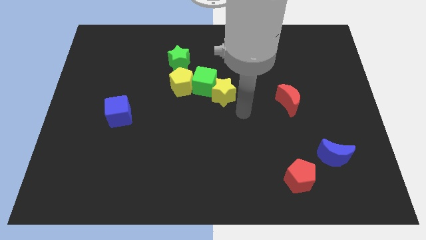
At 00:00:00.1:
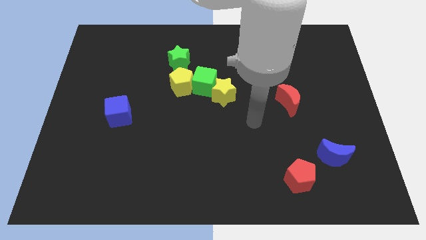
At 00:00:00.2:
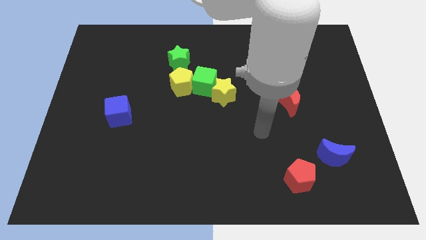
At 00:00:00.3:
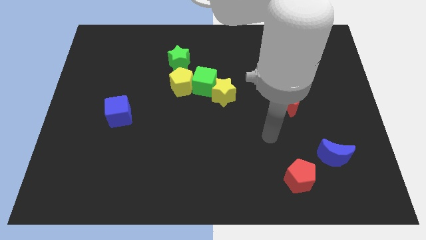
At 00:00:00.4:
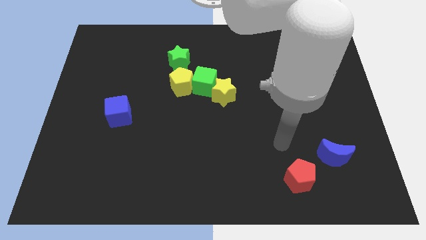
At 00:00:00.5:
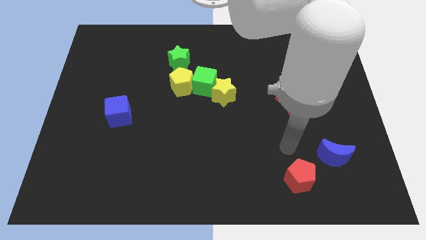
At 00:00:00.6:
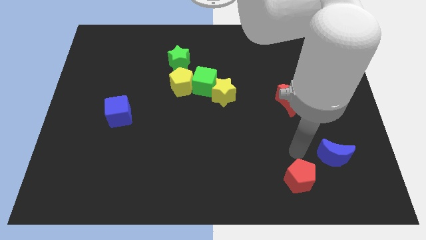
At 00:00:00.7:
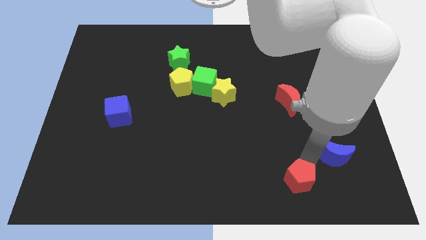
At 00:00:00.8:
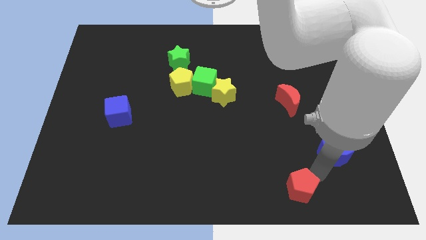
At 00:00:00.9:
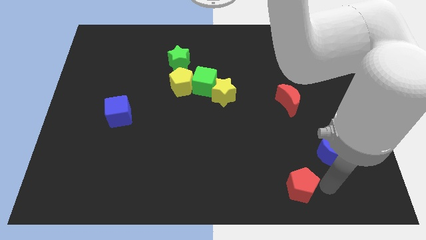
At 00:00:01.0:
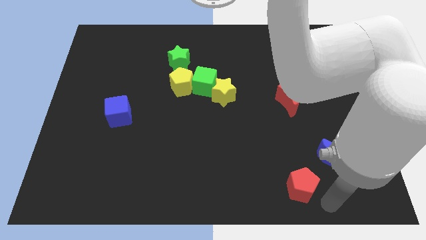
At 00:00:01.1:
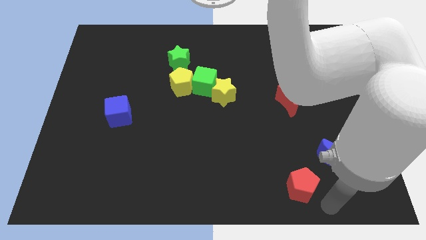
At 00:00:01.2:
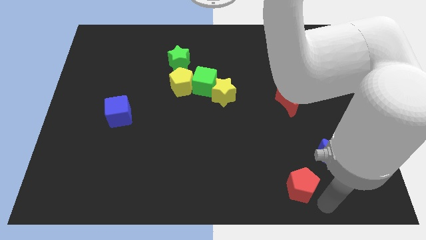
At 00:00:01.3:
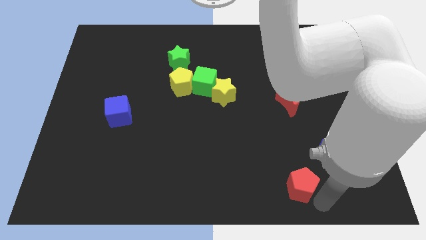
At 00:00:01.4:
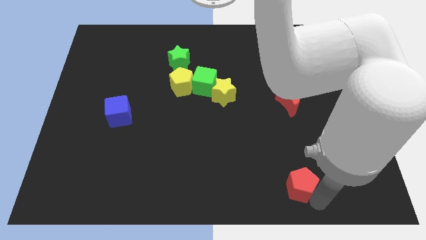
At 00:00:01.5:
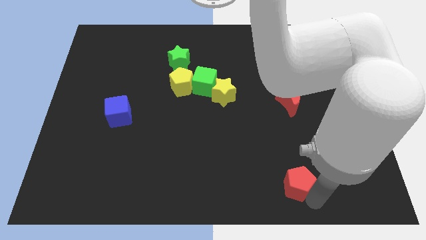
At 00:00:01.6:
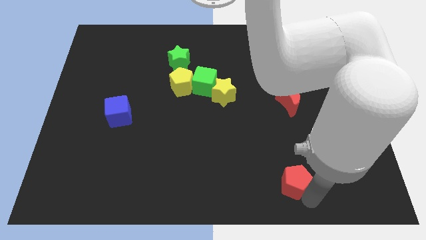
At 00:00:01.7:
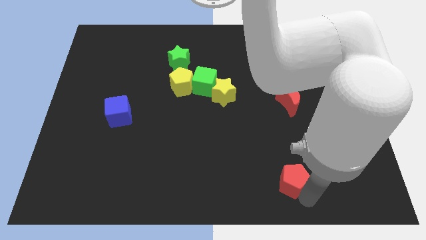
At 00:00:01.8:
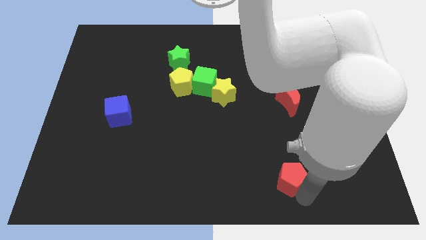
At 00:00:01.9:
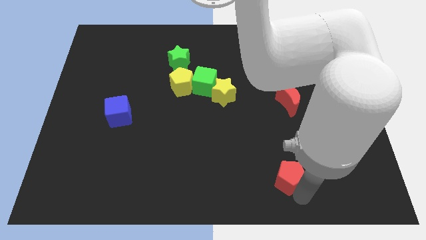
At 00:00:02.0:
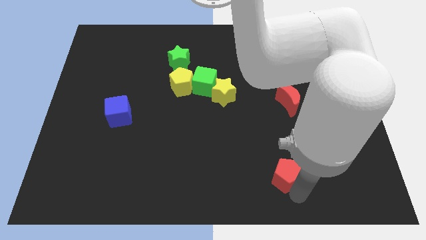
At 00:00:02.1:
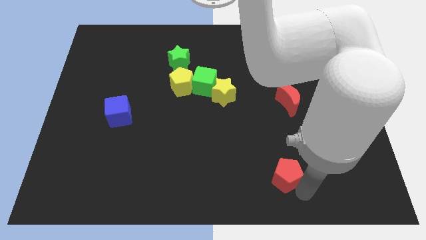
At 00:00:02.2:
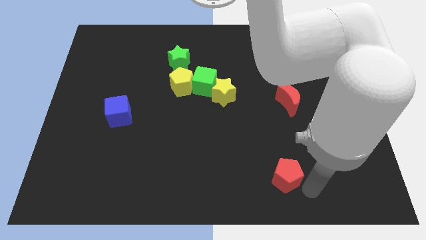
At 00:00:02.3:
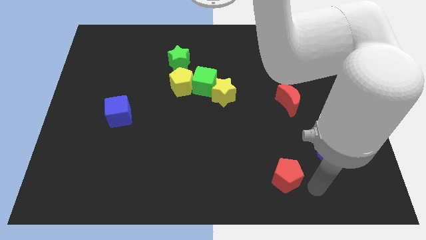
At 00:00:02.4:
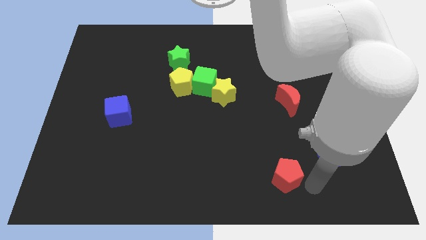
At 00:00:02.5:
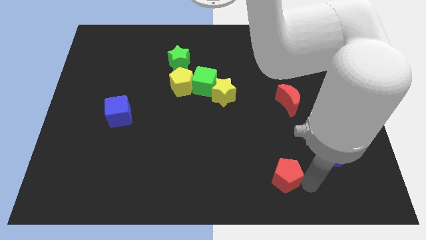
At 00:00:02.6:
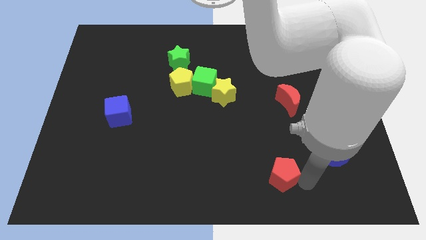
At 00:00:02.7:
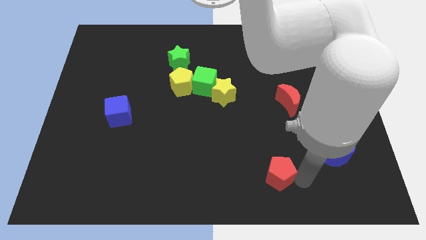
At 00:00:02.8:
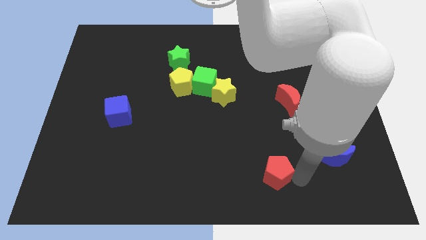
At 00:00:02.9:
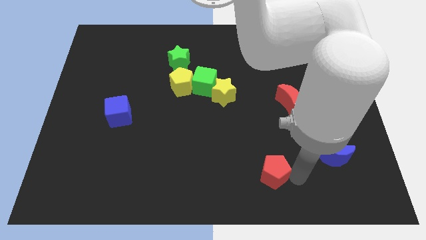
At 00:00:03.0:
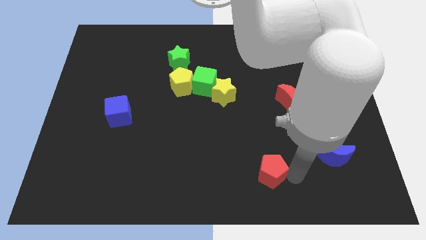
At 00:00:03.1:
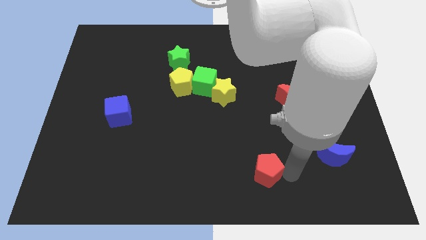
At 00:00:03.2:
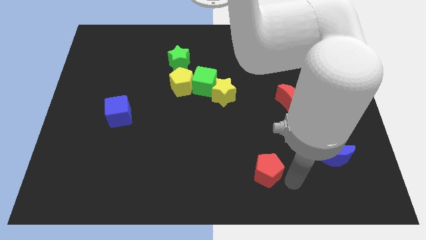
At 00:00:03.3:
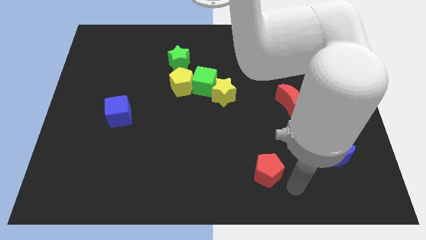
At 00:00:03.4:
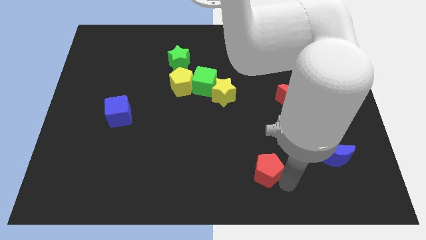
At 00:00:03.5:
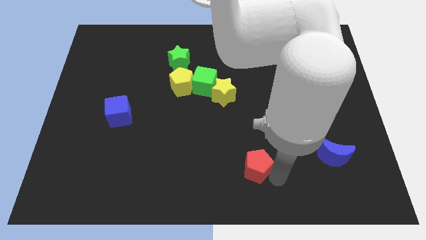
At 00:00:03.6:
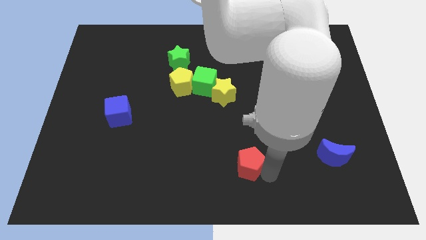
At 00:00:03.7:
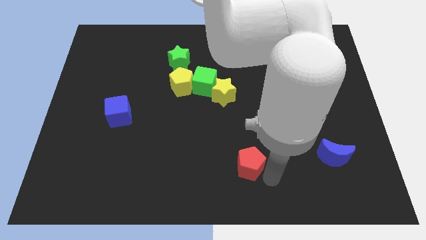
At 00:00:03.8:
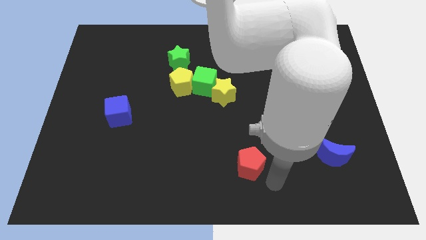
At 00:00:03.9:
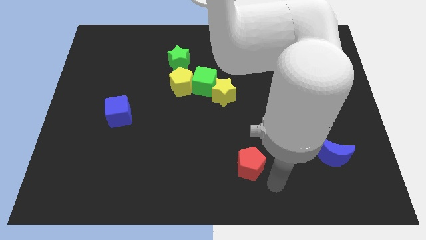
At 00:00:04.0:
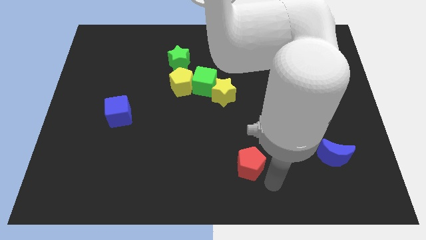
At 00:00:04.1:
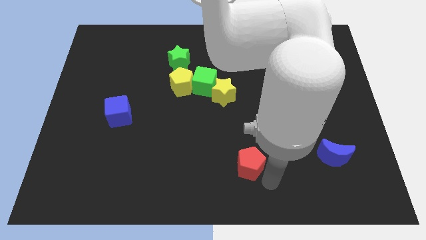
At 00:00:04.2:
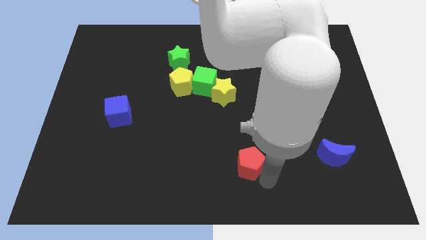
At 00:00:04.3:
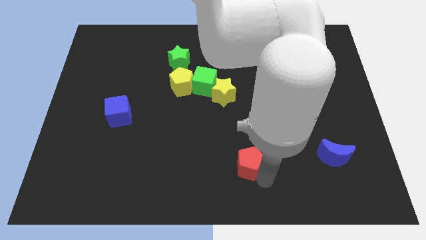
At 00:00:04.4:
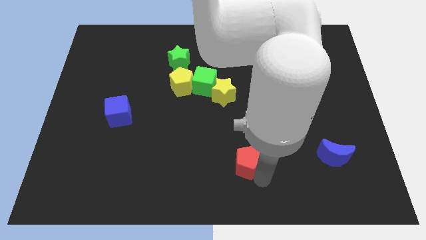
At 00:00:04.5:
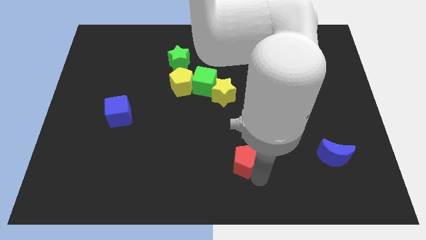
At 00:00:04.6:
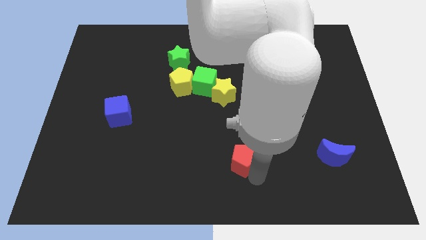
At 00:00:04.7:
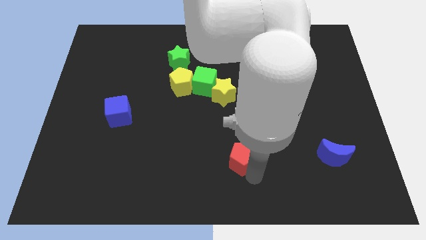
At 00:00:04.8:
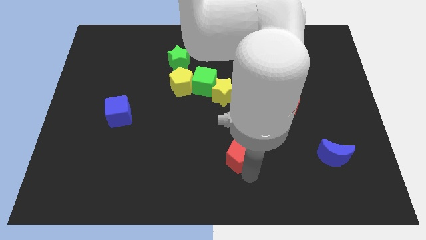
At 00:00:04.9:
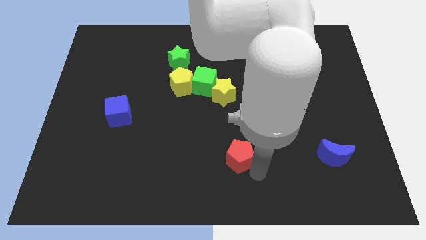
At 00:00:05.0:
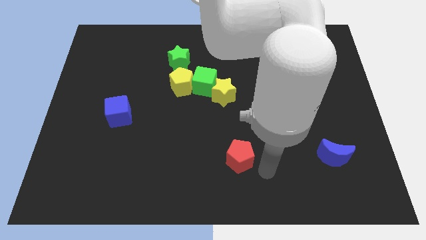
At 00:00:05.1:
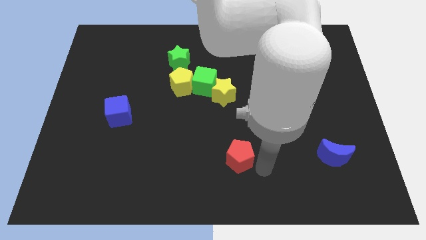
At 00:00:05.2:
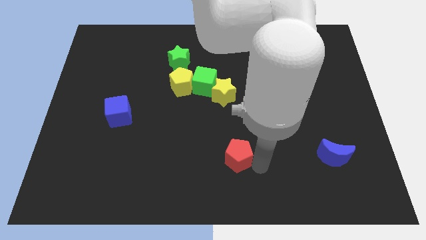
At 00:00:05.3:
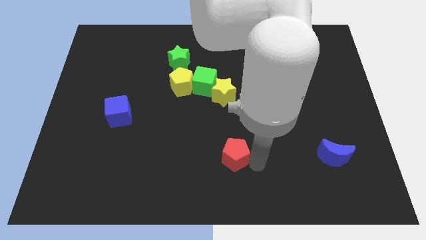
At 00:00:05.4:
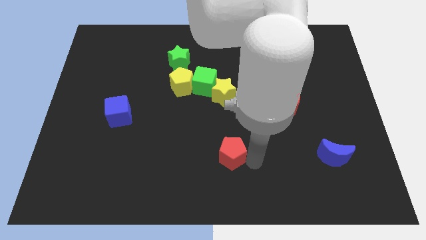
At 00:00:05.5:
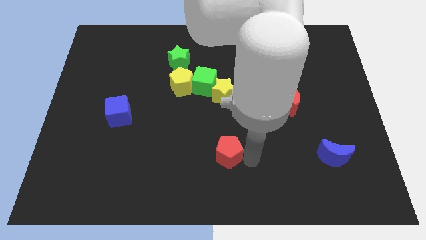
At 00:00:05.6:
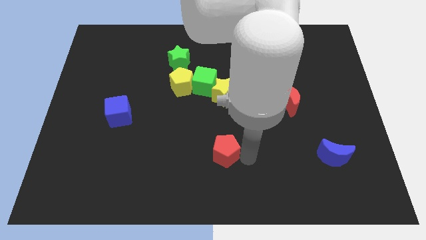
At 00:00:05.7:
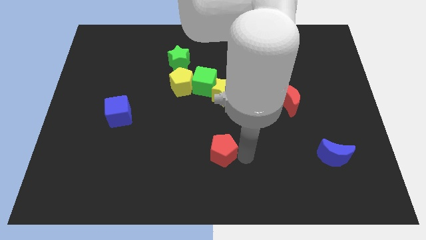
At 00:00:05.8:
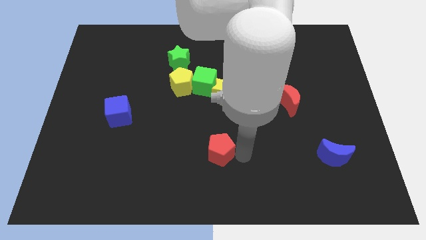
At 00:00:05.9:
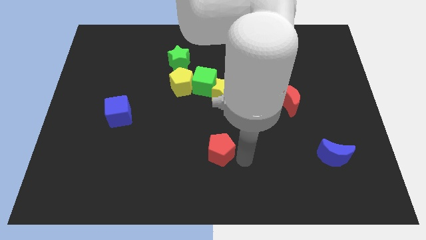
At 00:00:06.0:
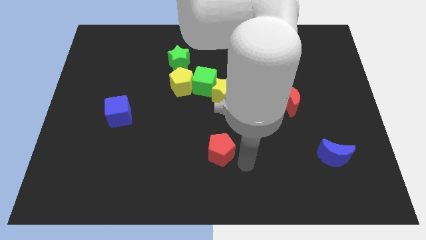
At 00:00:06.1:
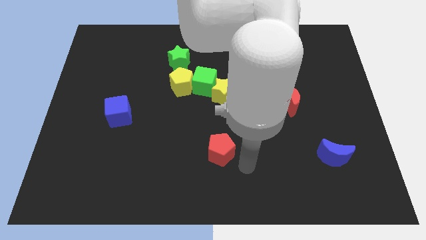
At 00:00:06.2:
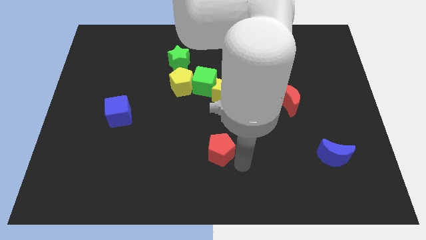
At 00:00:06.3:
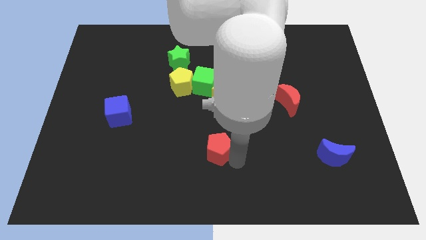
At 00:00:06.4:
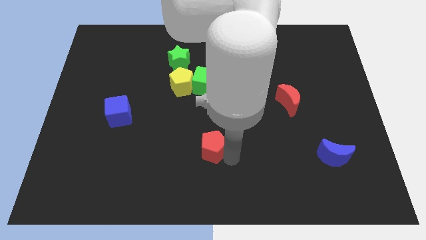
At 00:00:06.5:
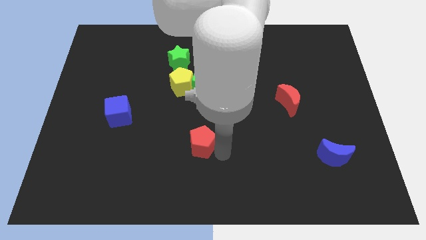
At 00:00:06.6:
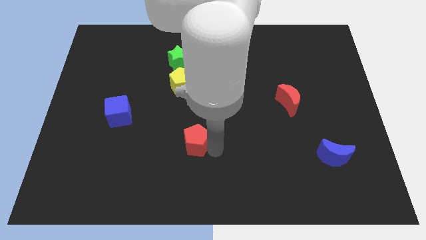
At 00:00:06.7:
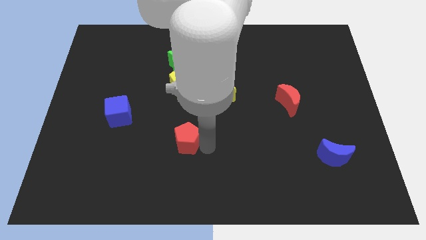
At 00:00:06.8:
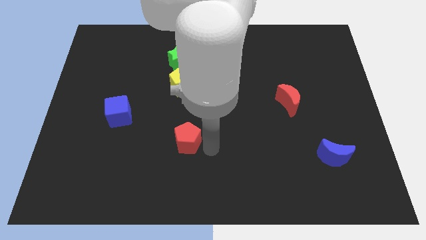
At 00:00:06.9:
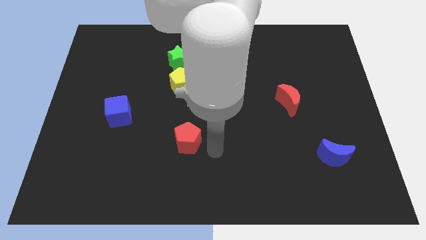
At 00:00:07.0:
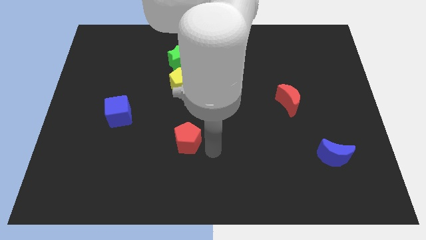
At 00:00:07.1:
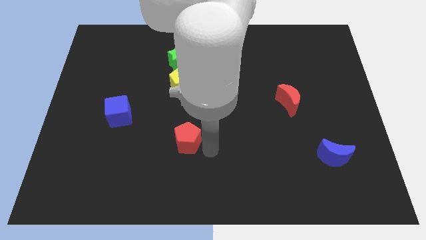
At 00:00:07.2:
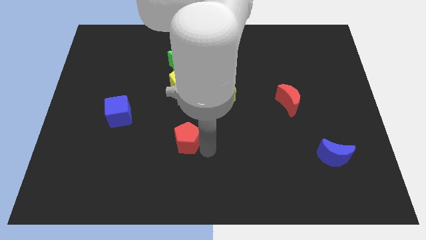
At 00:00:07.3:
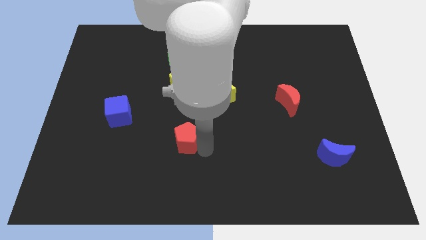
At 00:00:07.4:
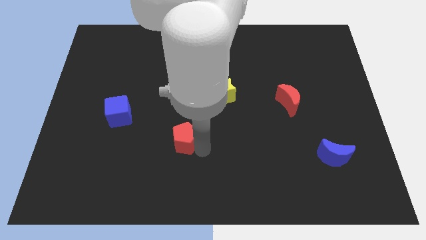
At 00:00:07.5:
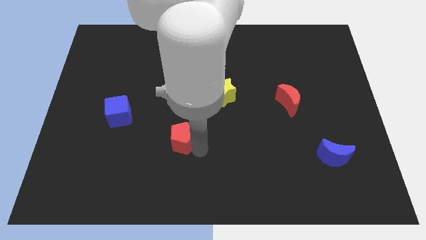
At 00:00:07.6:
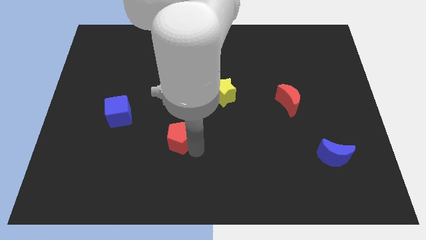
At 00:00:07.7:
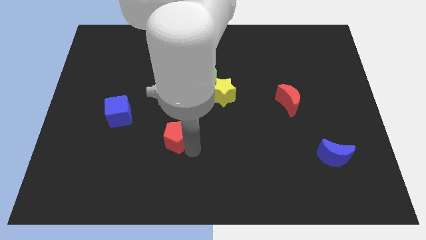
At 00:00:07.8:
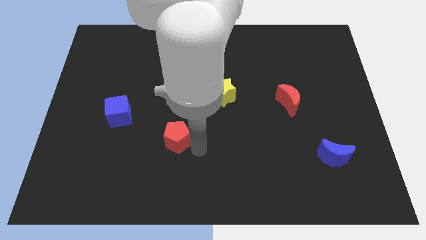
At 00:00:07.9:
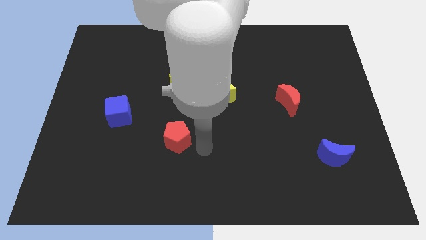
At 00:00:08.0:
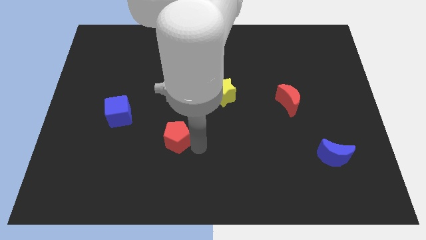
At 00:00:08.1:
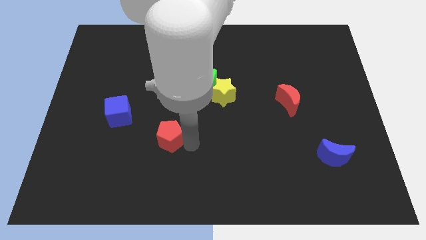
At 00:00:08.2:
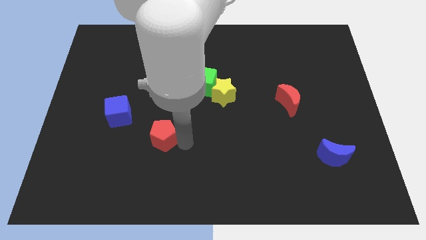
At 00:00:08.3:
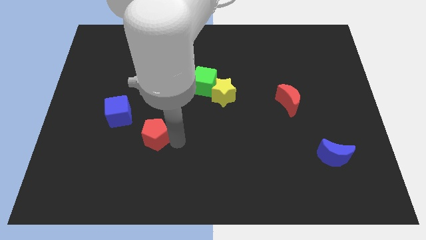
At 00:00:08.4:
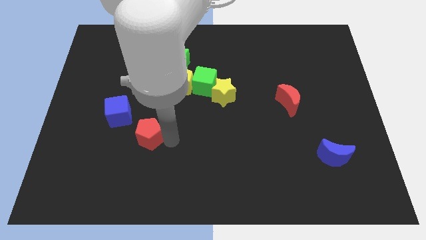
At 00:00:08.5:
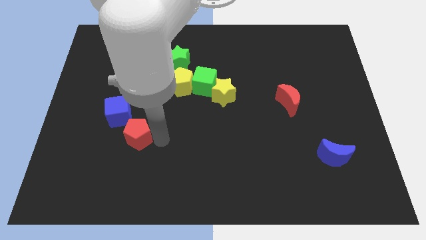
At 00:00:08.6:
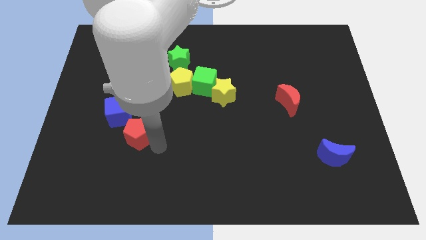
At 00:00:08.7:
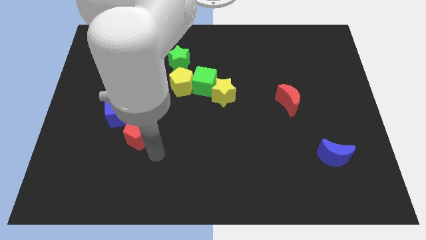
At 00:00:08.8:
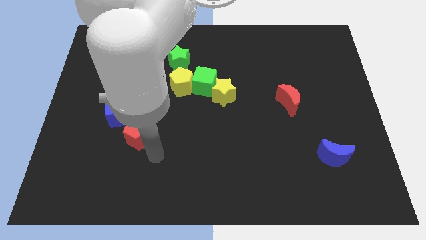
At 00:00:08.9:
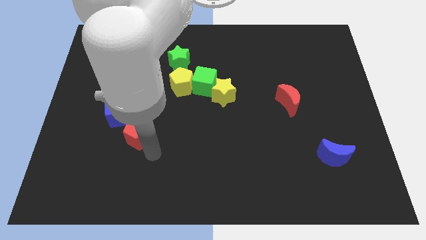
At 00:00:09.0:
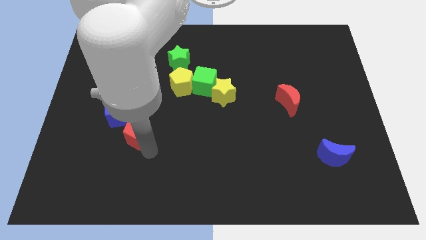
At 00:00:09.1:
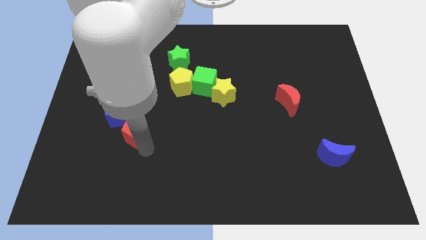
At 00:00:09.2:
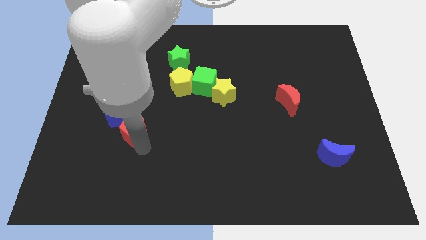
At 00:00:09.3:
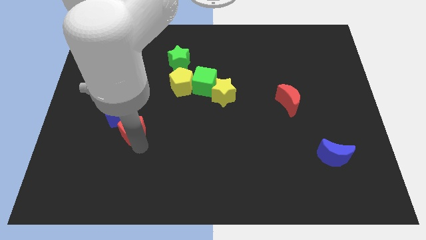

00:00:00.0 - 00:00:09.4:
push the red pentagon close to the blue cube
